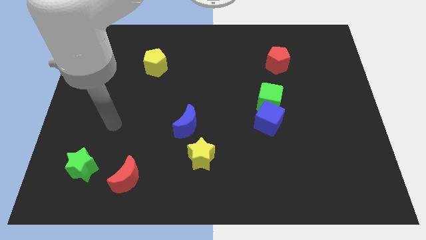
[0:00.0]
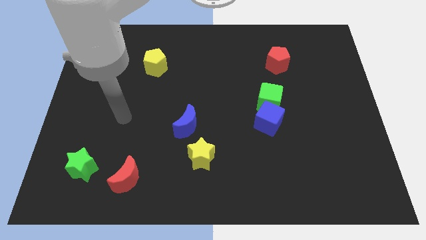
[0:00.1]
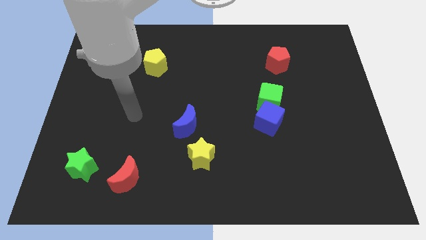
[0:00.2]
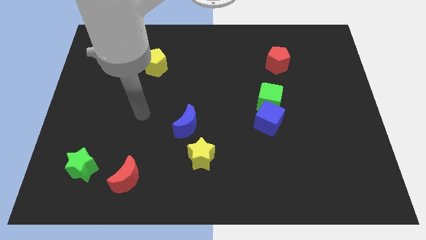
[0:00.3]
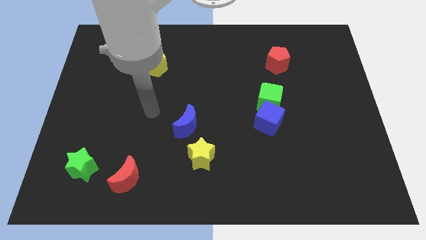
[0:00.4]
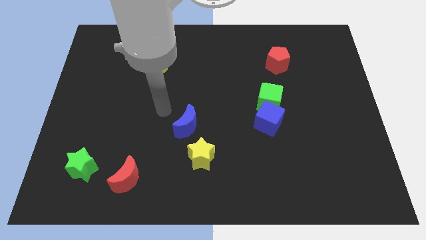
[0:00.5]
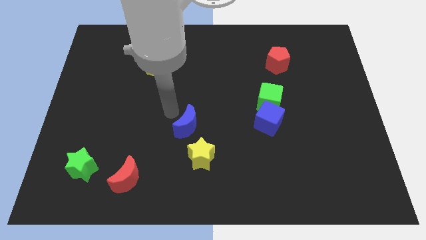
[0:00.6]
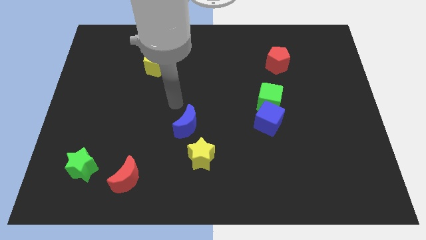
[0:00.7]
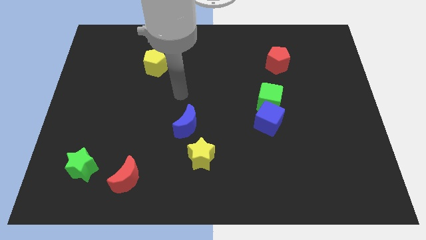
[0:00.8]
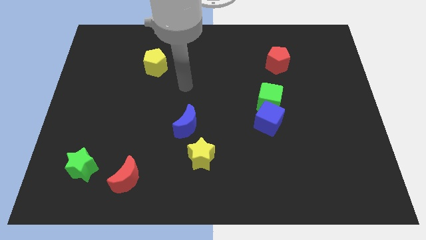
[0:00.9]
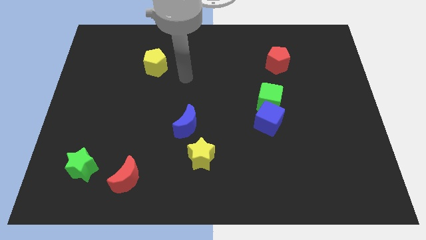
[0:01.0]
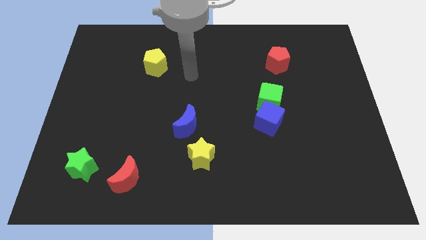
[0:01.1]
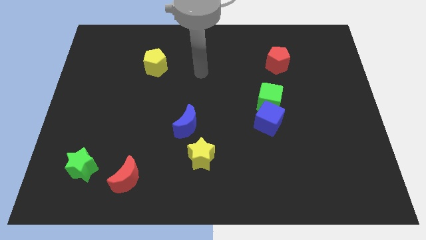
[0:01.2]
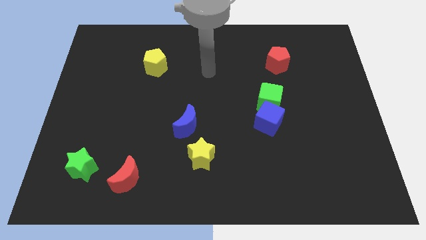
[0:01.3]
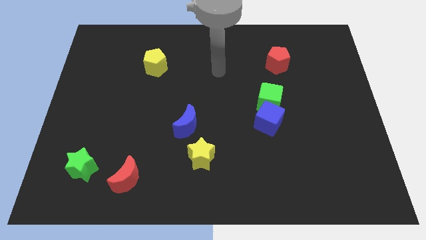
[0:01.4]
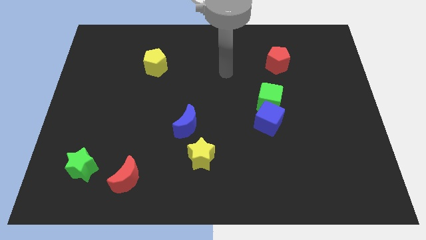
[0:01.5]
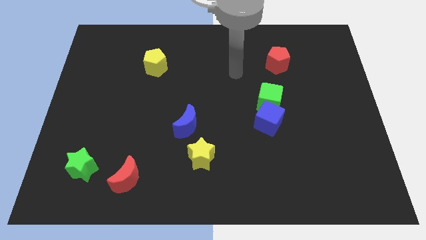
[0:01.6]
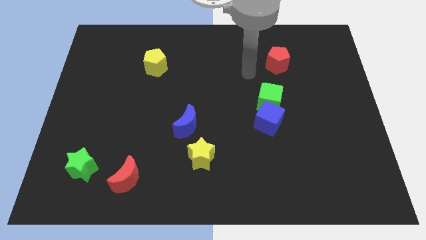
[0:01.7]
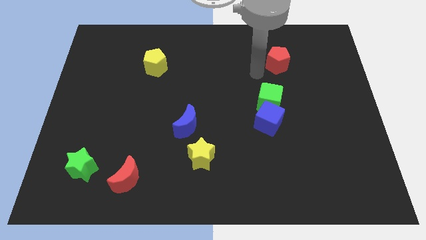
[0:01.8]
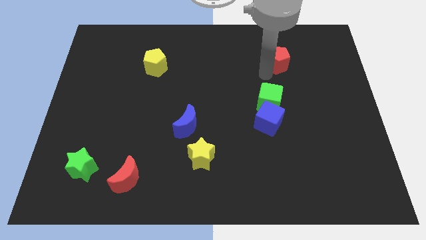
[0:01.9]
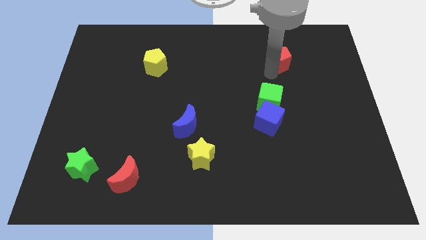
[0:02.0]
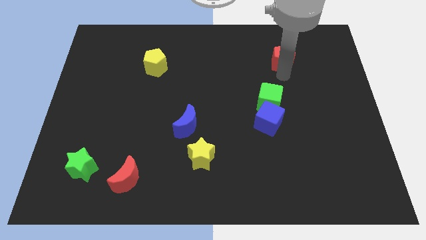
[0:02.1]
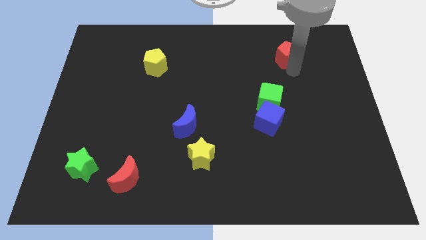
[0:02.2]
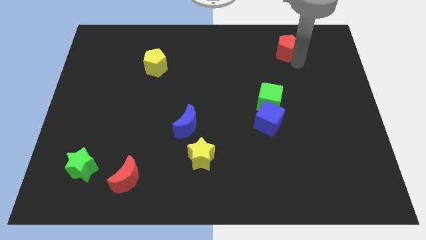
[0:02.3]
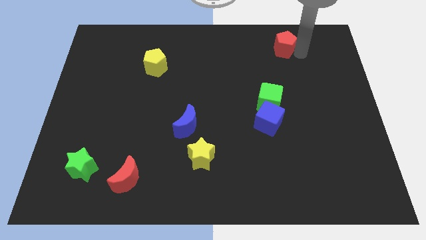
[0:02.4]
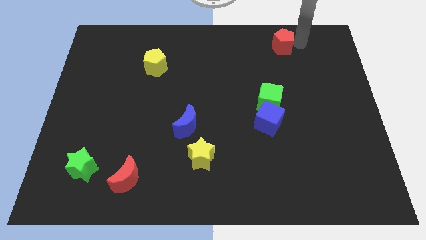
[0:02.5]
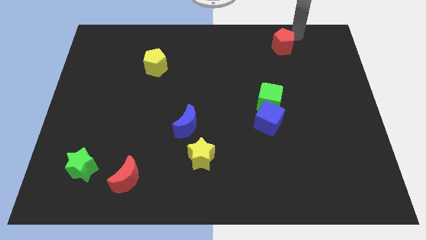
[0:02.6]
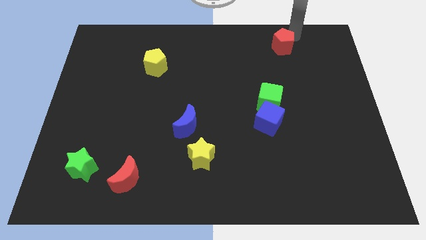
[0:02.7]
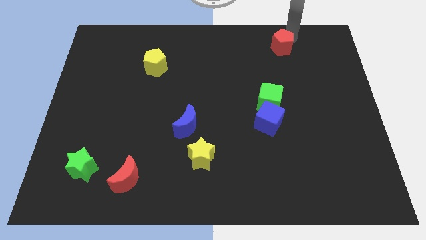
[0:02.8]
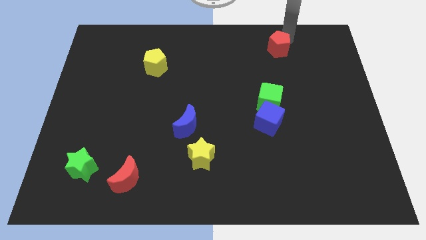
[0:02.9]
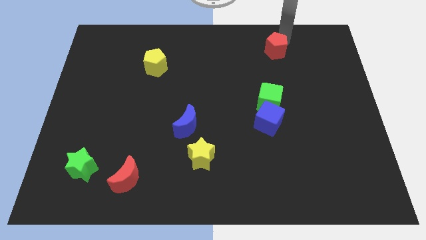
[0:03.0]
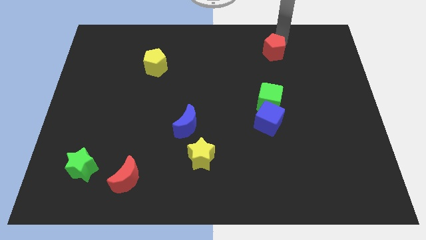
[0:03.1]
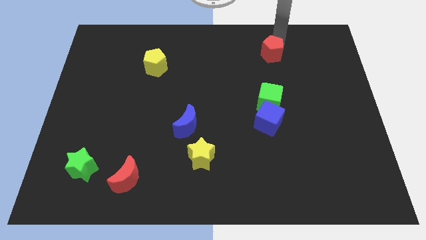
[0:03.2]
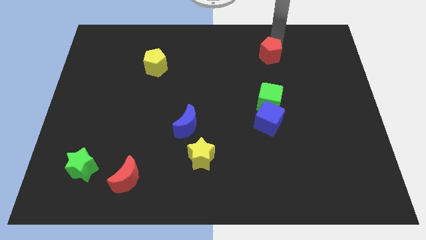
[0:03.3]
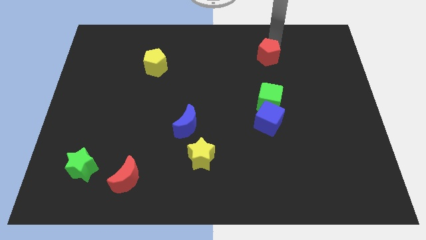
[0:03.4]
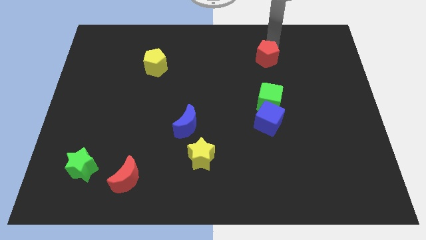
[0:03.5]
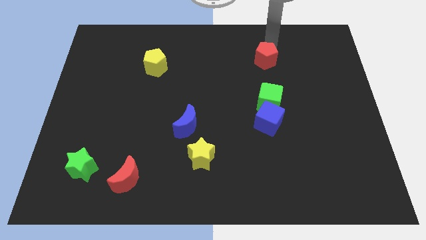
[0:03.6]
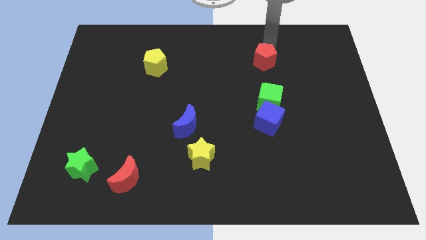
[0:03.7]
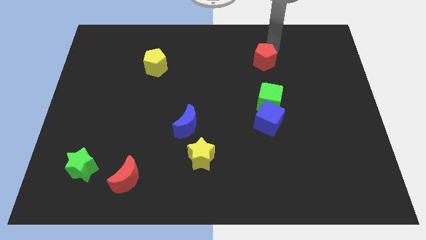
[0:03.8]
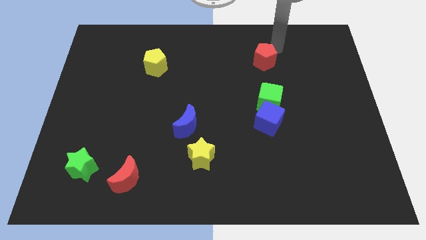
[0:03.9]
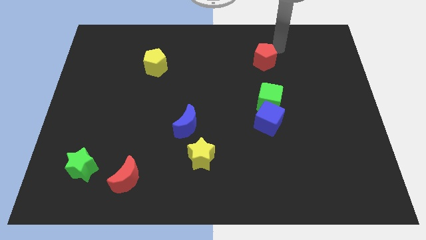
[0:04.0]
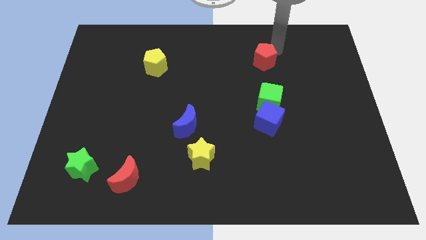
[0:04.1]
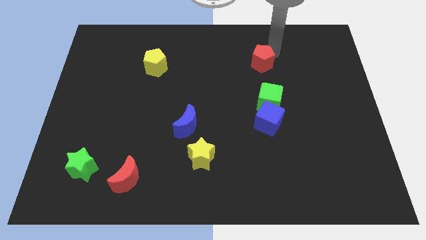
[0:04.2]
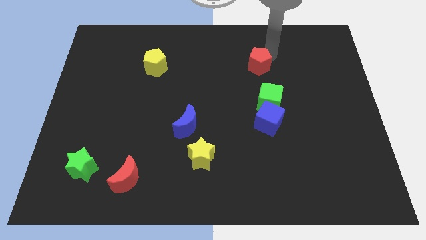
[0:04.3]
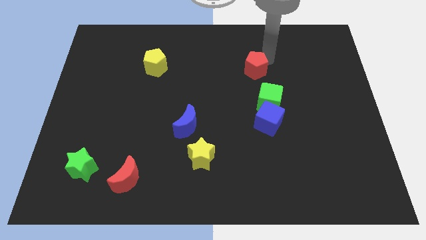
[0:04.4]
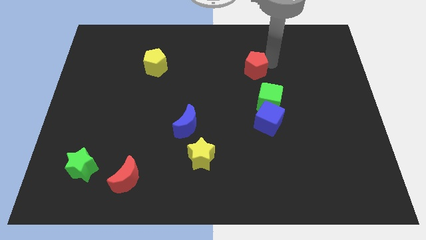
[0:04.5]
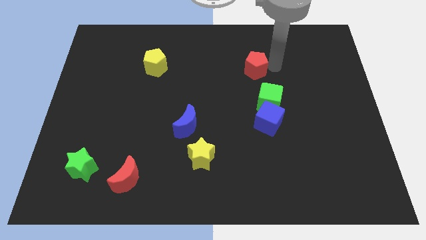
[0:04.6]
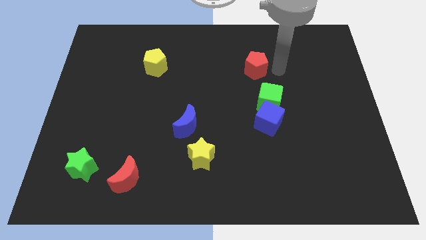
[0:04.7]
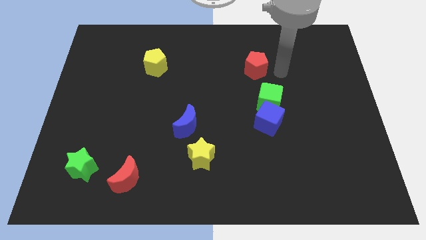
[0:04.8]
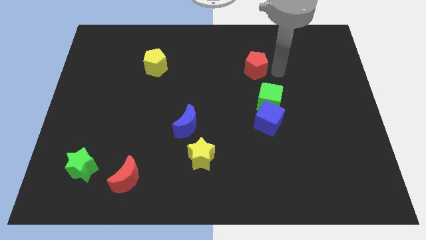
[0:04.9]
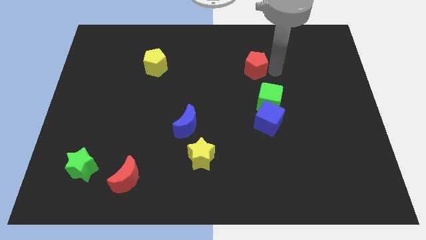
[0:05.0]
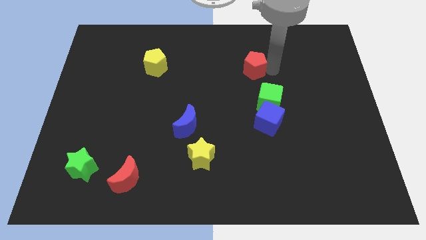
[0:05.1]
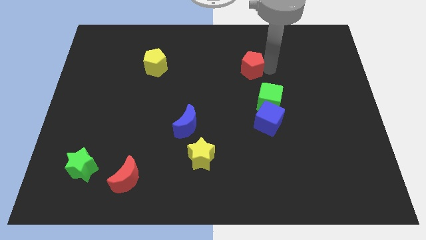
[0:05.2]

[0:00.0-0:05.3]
move the red pentagon a little to the left

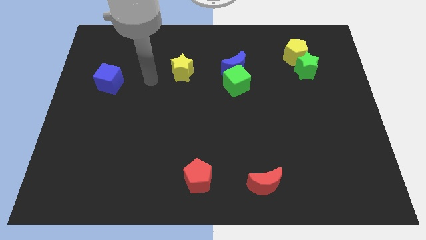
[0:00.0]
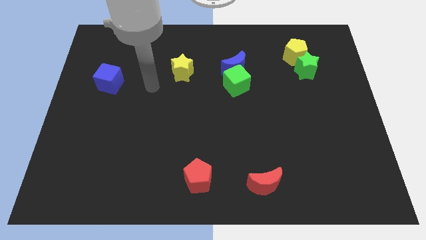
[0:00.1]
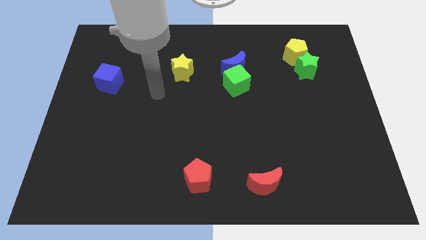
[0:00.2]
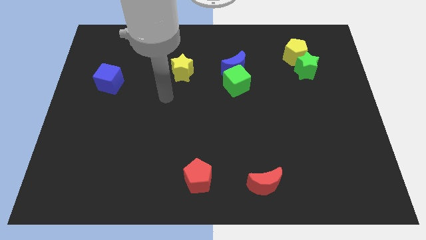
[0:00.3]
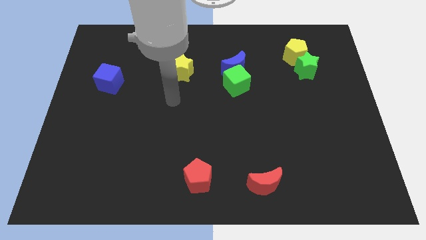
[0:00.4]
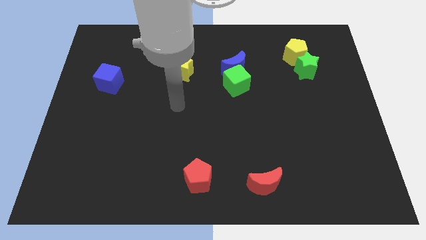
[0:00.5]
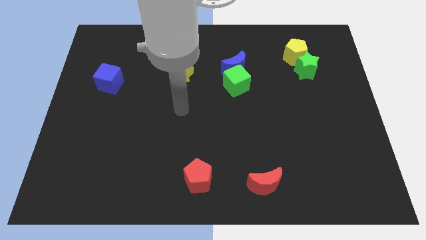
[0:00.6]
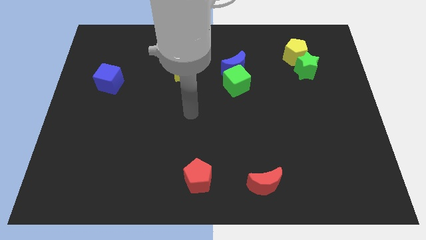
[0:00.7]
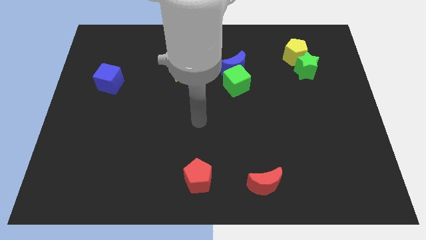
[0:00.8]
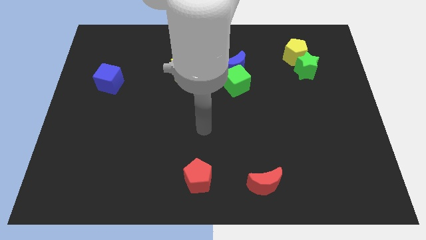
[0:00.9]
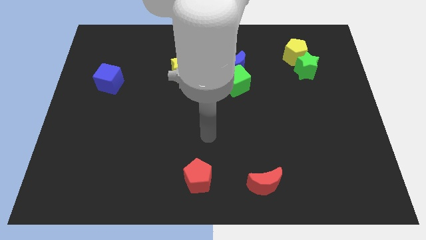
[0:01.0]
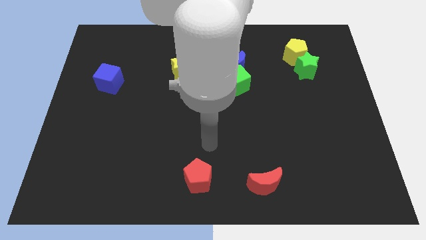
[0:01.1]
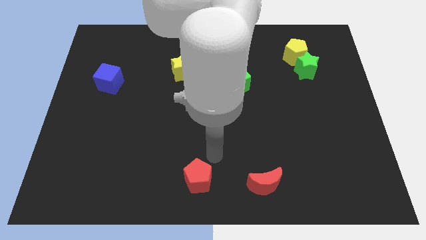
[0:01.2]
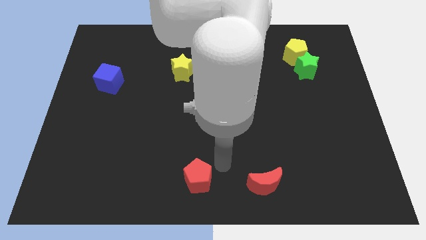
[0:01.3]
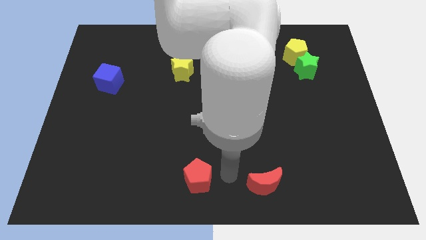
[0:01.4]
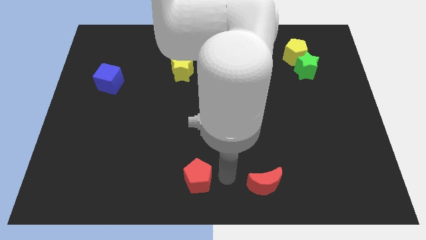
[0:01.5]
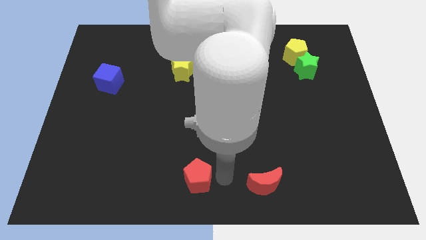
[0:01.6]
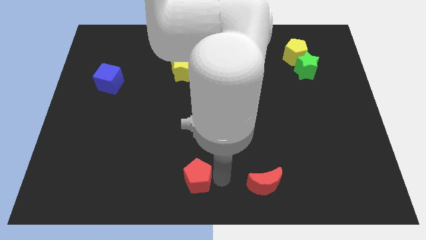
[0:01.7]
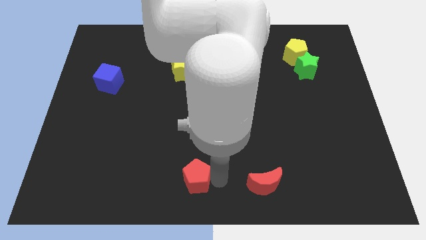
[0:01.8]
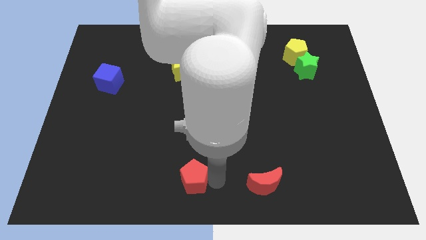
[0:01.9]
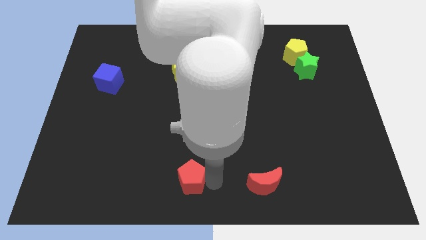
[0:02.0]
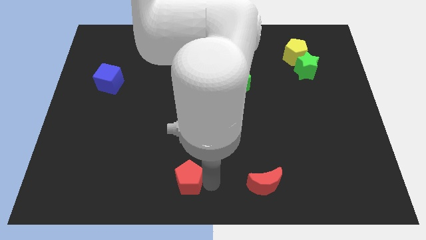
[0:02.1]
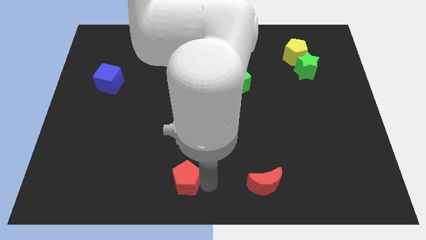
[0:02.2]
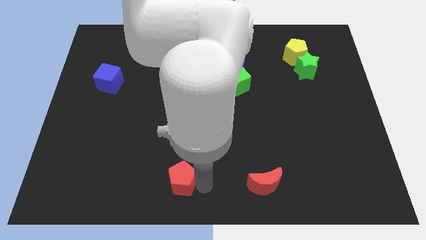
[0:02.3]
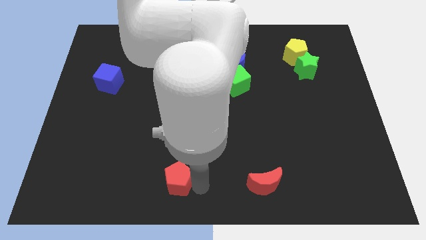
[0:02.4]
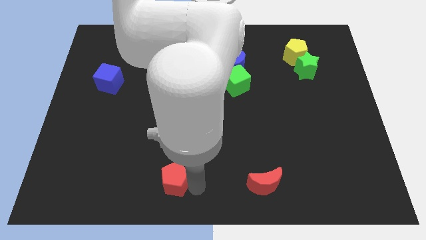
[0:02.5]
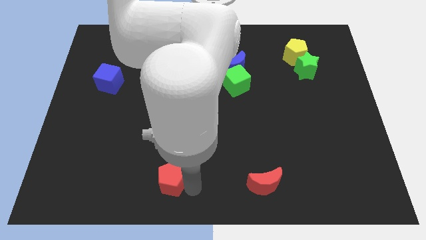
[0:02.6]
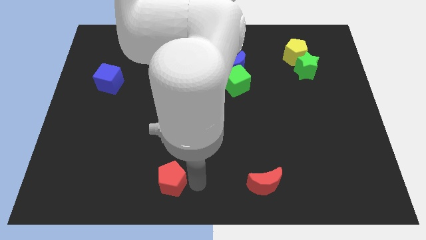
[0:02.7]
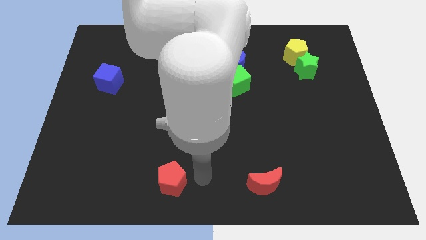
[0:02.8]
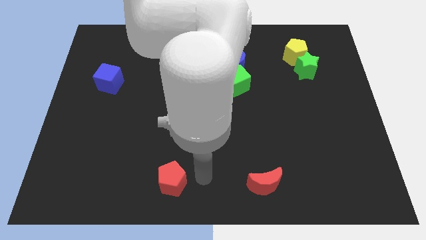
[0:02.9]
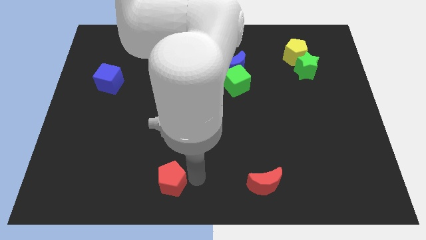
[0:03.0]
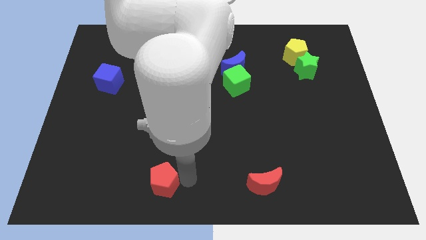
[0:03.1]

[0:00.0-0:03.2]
push the red pentagon a little left
